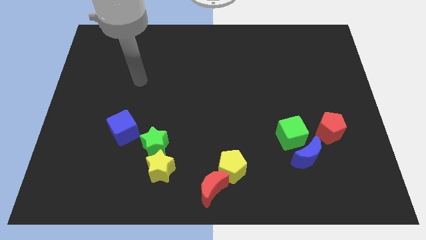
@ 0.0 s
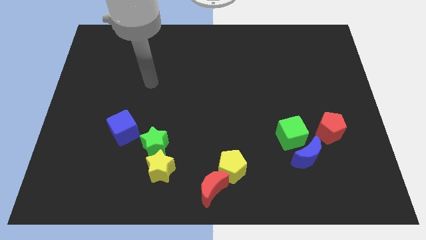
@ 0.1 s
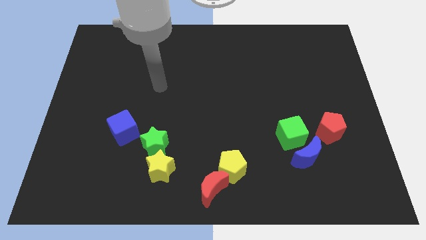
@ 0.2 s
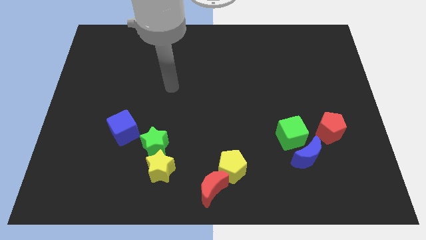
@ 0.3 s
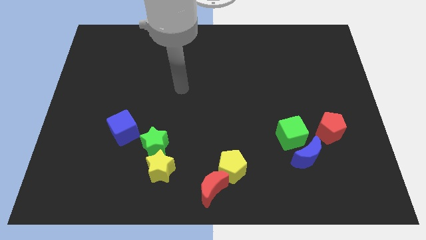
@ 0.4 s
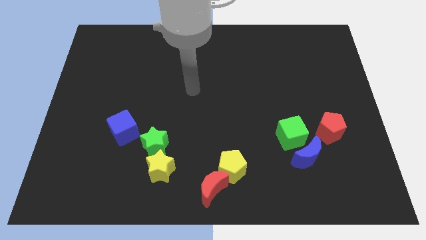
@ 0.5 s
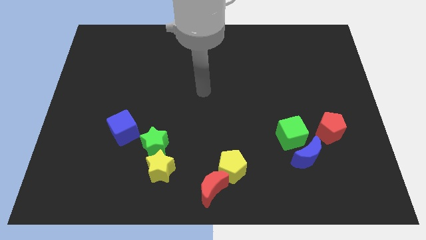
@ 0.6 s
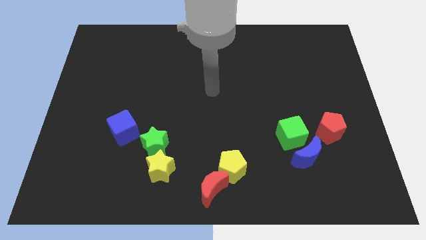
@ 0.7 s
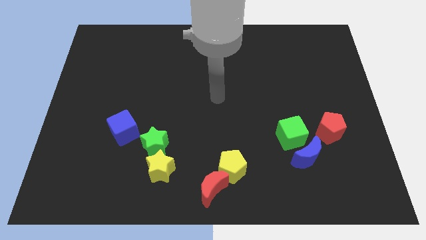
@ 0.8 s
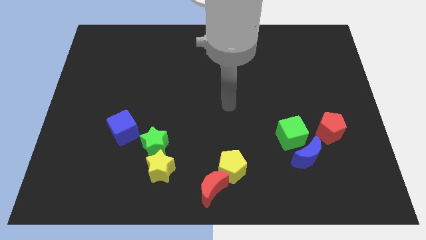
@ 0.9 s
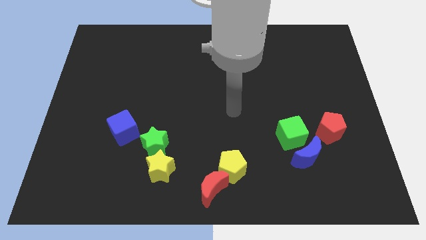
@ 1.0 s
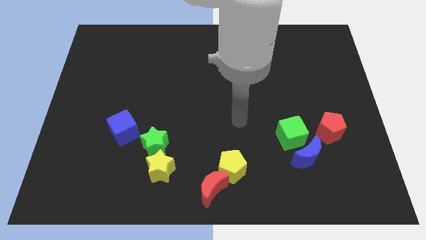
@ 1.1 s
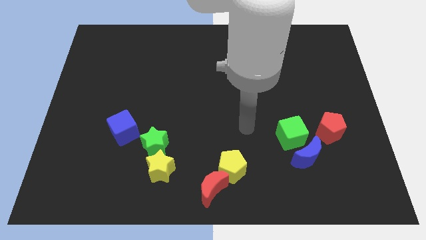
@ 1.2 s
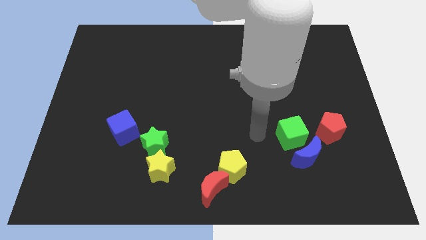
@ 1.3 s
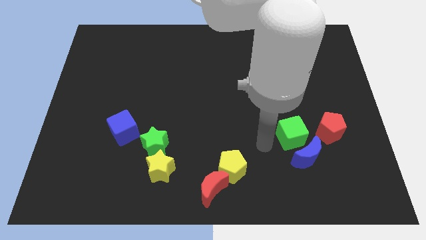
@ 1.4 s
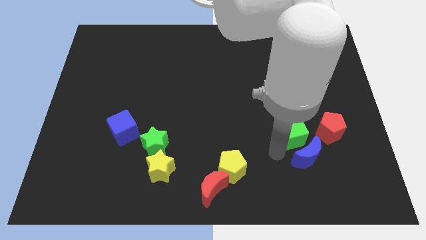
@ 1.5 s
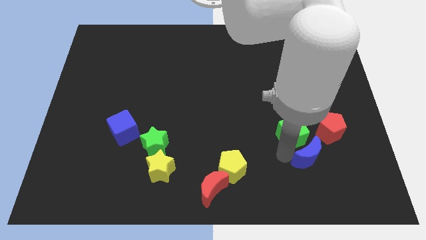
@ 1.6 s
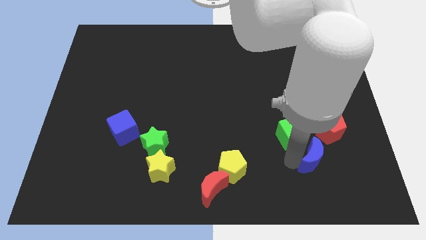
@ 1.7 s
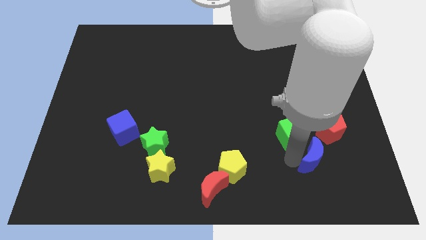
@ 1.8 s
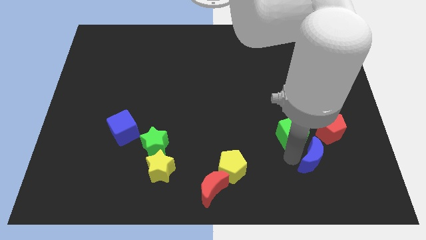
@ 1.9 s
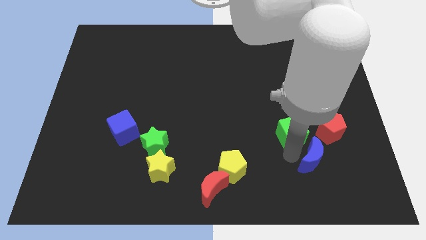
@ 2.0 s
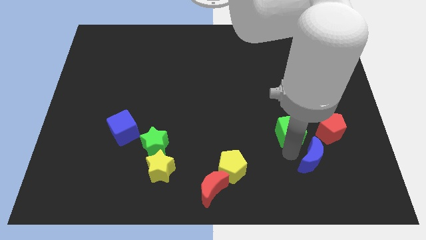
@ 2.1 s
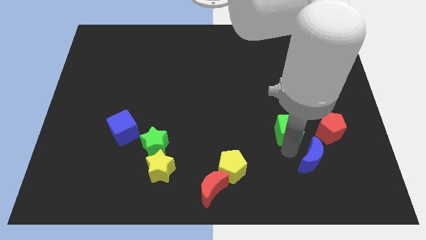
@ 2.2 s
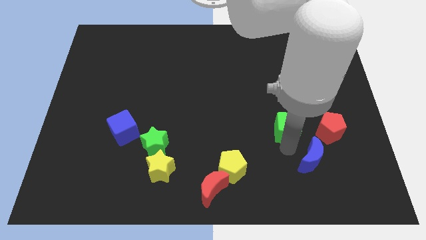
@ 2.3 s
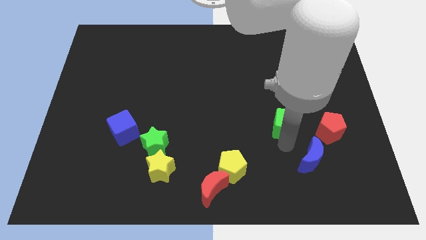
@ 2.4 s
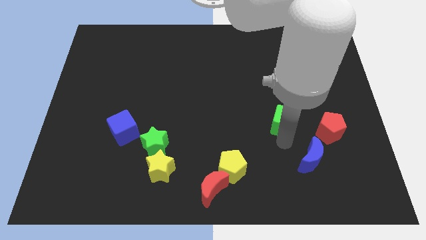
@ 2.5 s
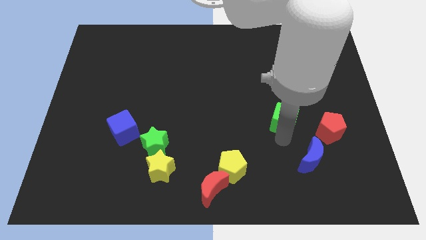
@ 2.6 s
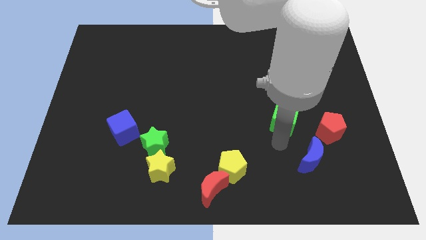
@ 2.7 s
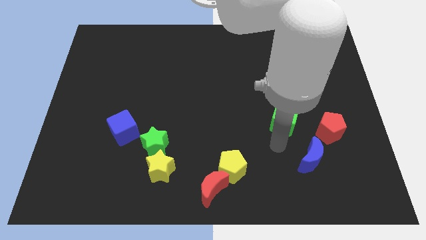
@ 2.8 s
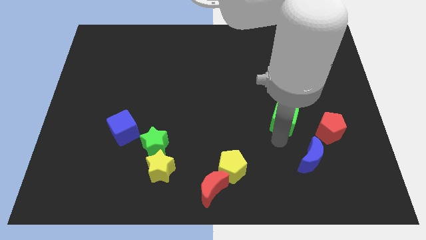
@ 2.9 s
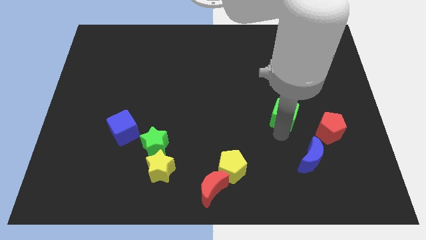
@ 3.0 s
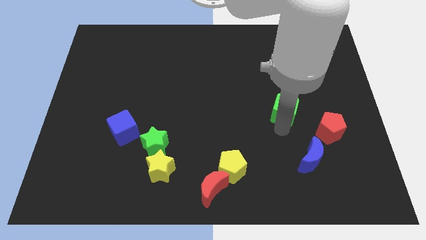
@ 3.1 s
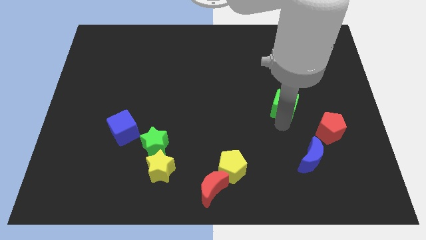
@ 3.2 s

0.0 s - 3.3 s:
move the green cube a little bit upwards

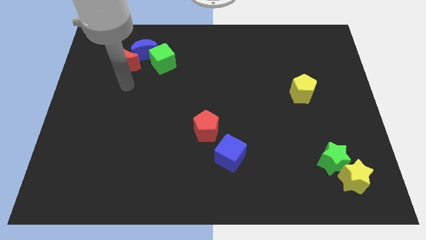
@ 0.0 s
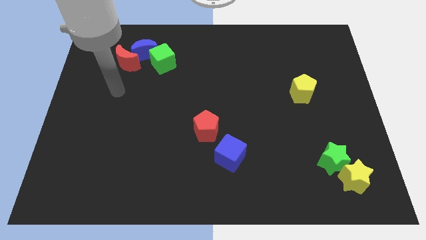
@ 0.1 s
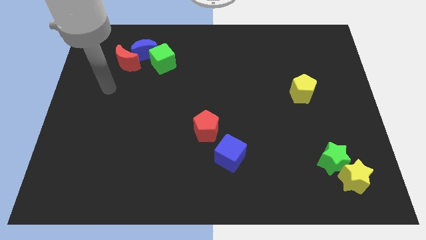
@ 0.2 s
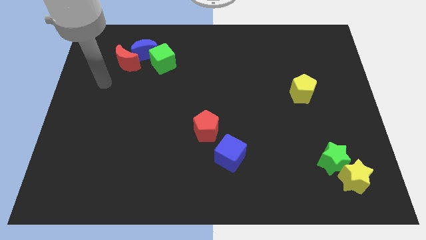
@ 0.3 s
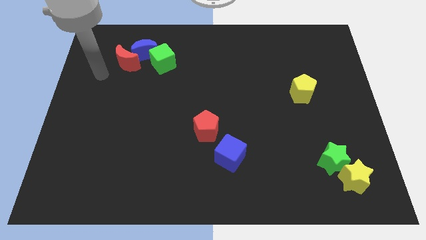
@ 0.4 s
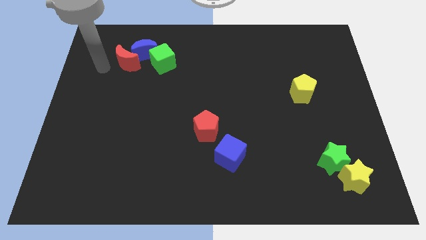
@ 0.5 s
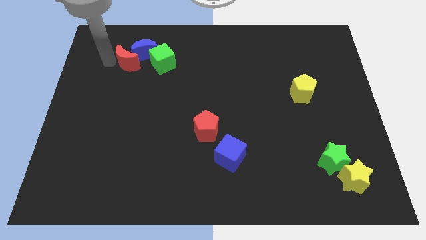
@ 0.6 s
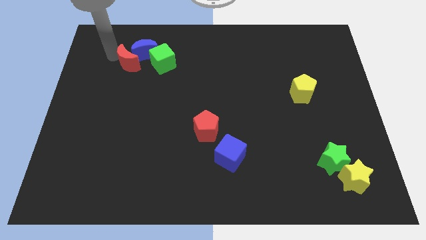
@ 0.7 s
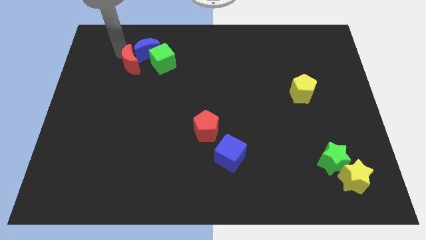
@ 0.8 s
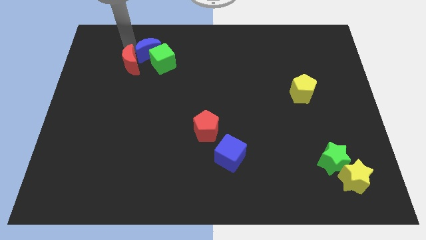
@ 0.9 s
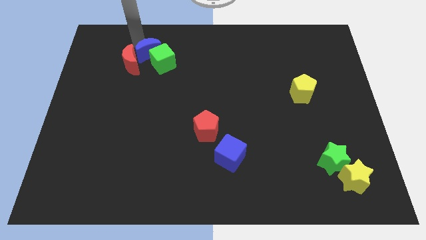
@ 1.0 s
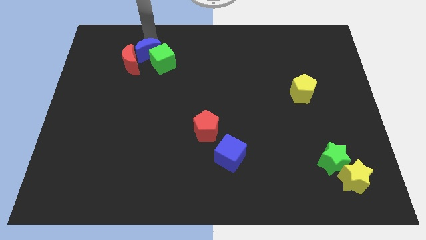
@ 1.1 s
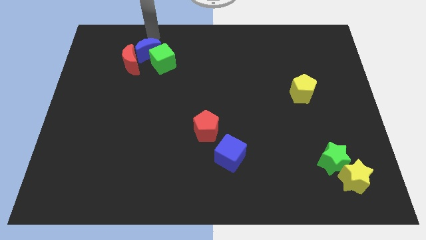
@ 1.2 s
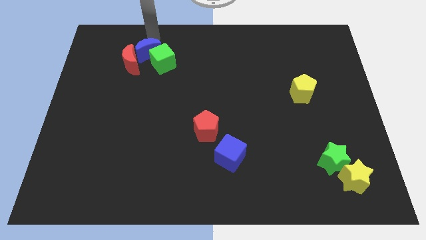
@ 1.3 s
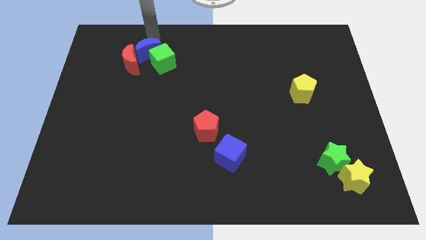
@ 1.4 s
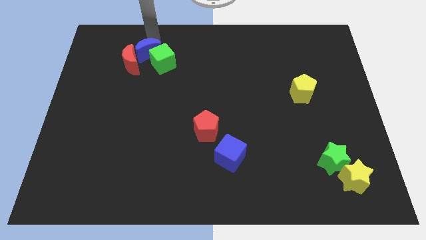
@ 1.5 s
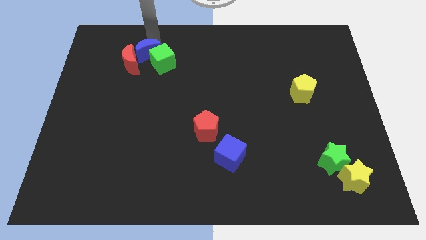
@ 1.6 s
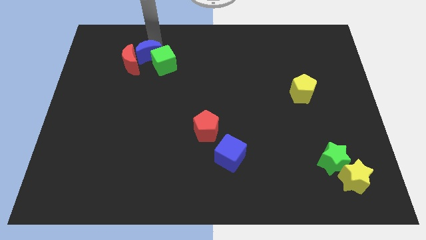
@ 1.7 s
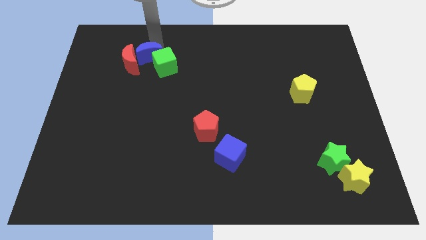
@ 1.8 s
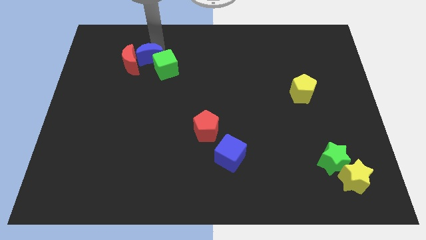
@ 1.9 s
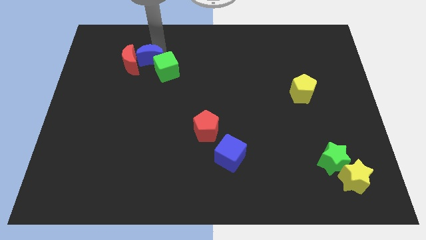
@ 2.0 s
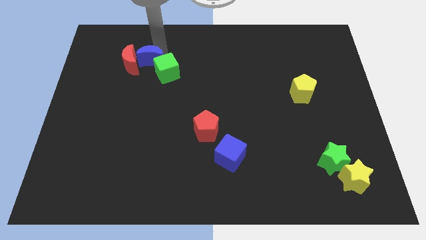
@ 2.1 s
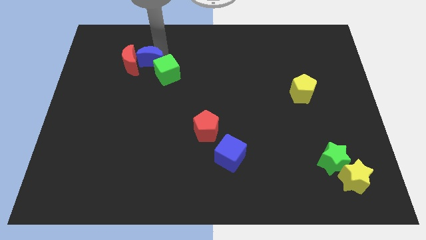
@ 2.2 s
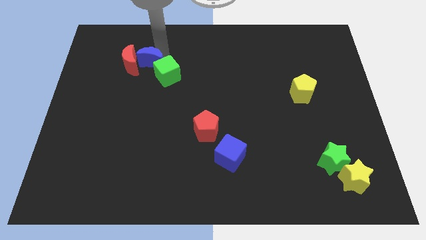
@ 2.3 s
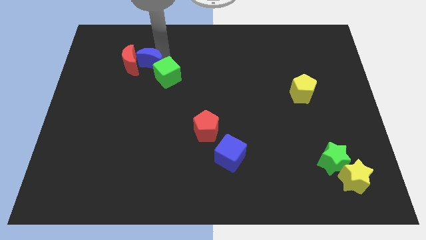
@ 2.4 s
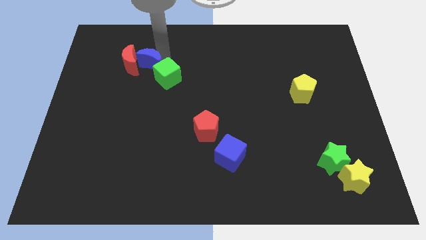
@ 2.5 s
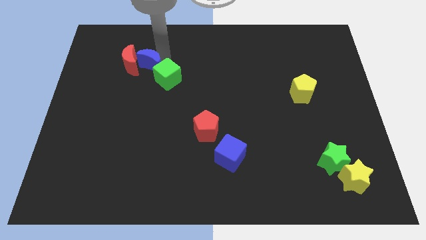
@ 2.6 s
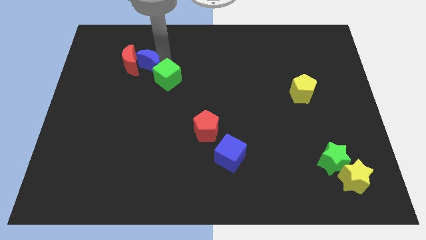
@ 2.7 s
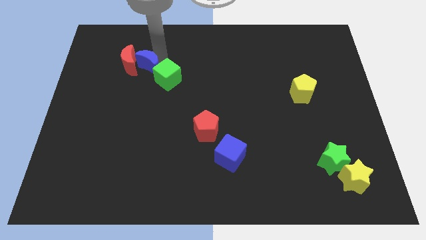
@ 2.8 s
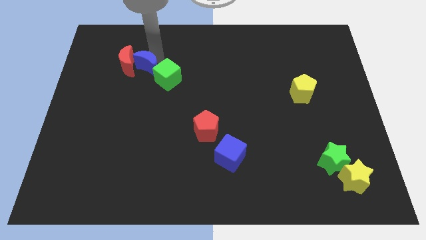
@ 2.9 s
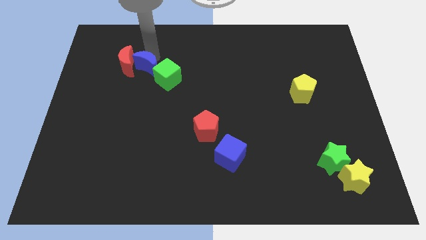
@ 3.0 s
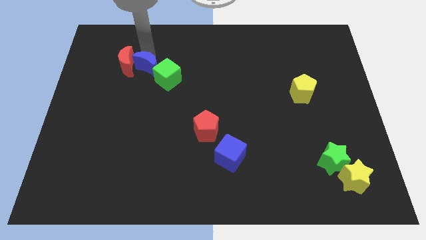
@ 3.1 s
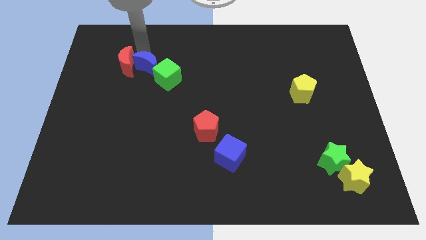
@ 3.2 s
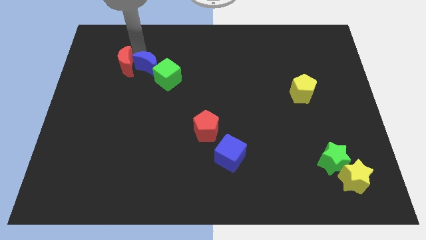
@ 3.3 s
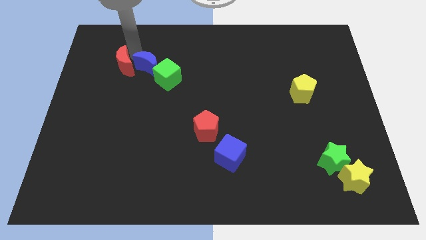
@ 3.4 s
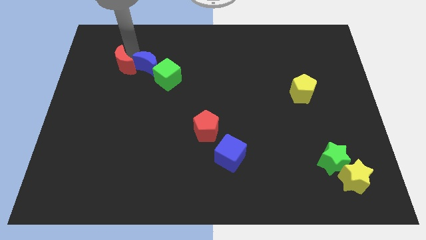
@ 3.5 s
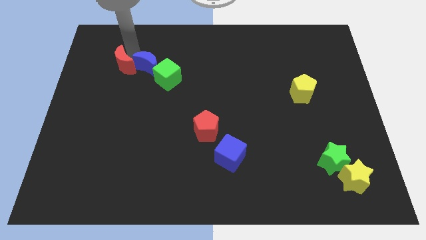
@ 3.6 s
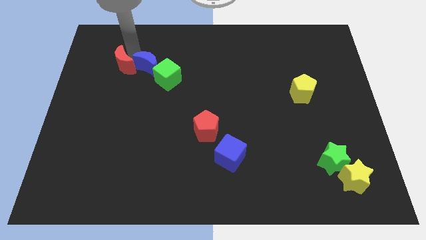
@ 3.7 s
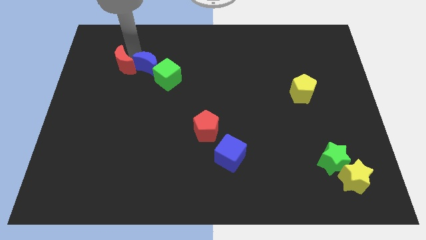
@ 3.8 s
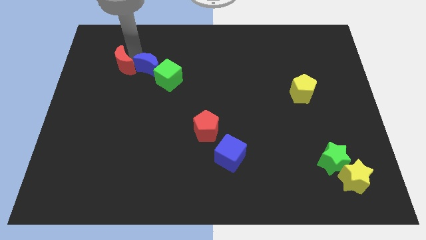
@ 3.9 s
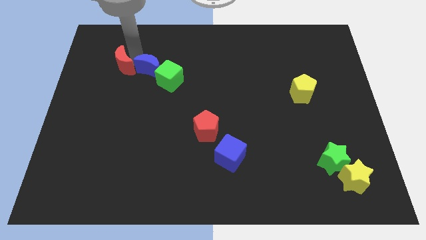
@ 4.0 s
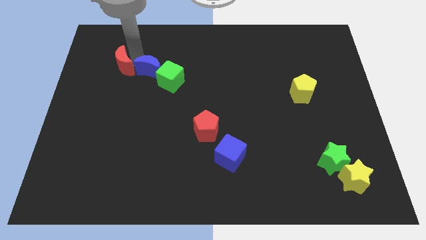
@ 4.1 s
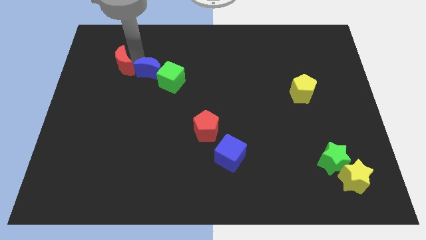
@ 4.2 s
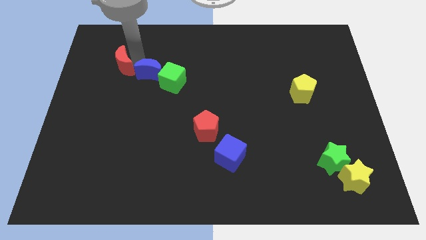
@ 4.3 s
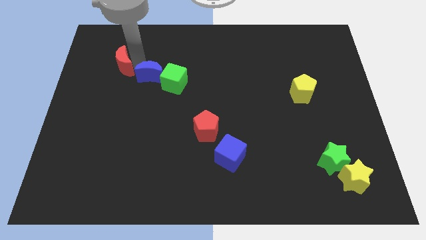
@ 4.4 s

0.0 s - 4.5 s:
slightly slide the blue moon downwards and right diagonally

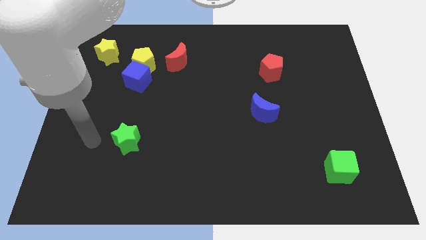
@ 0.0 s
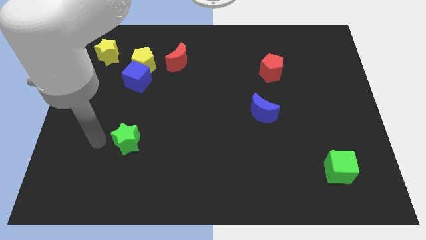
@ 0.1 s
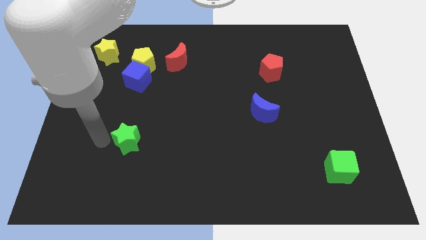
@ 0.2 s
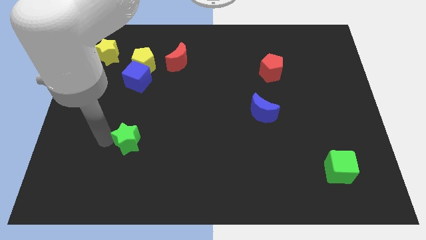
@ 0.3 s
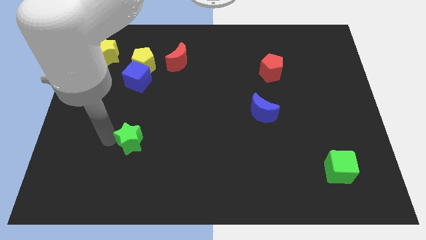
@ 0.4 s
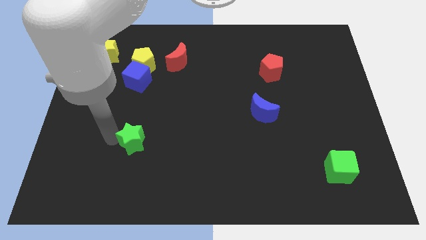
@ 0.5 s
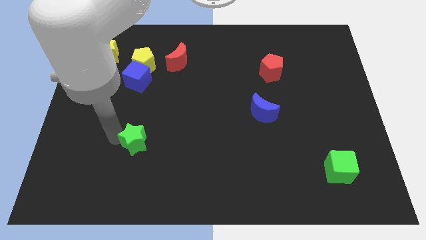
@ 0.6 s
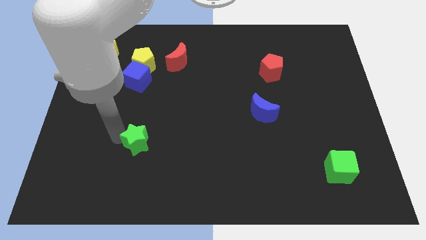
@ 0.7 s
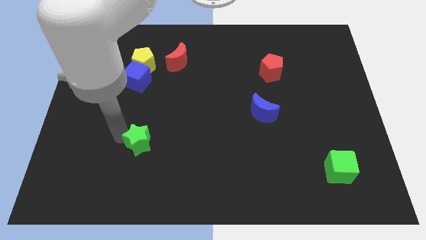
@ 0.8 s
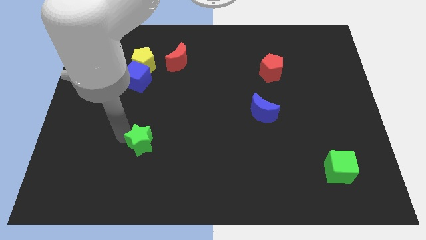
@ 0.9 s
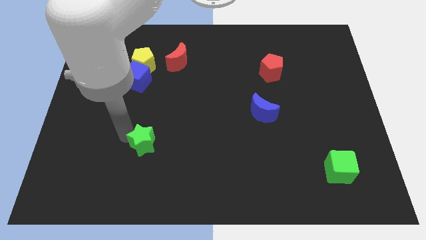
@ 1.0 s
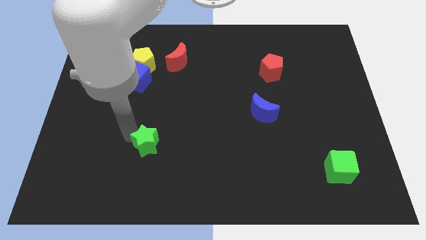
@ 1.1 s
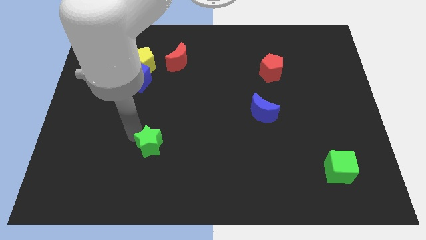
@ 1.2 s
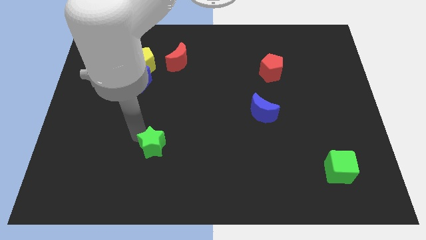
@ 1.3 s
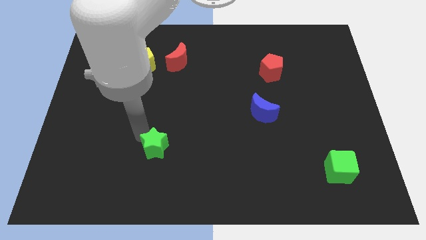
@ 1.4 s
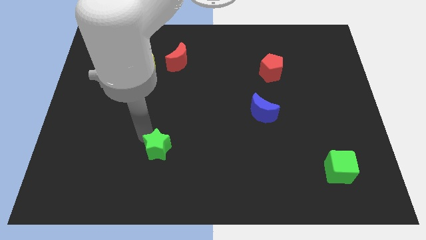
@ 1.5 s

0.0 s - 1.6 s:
push the green star to the right a little
